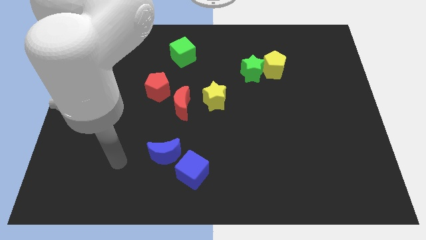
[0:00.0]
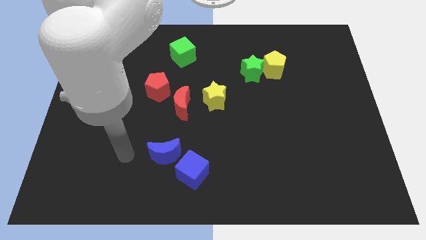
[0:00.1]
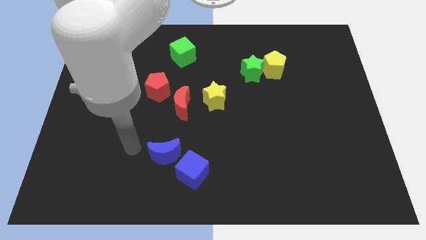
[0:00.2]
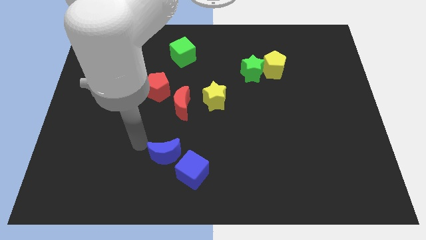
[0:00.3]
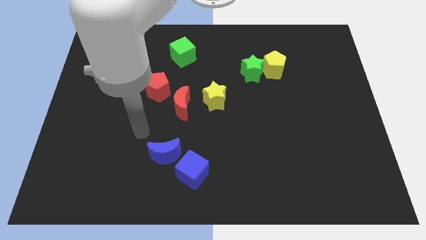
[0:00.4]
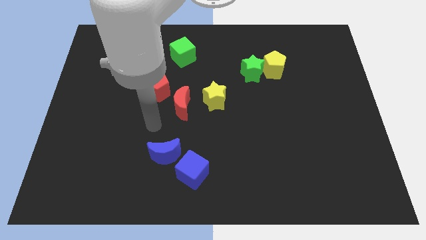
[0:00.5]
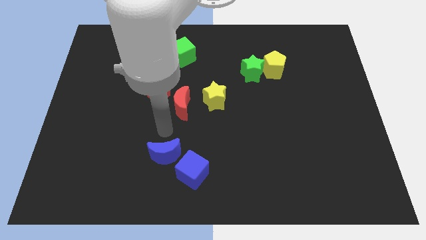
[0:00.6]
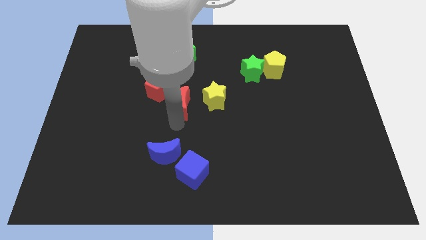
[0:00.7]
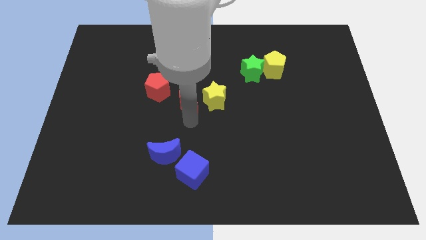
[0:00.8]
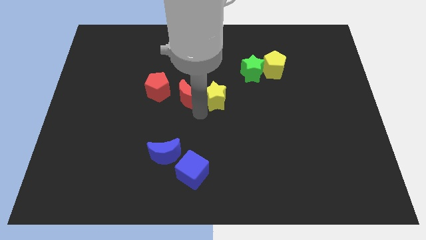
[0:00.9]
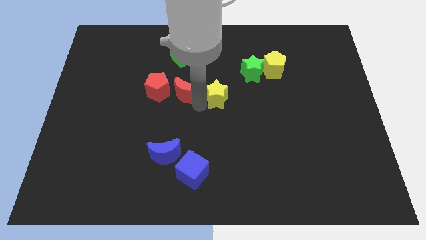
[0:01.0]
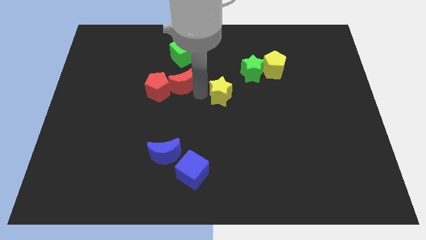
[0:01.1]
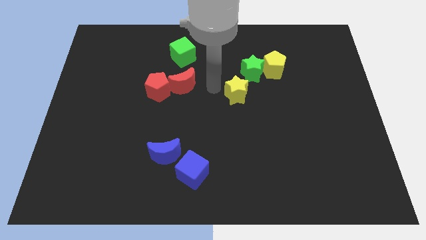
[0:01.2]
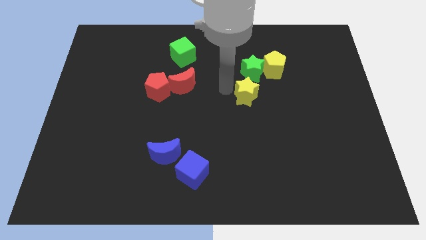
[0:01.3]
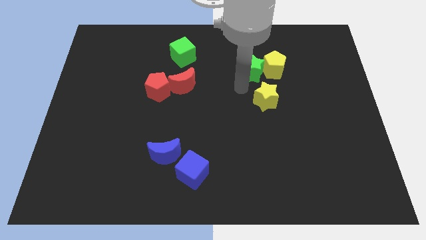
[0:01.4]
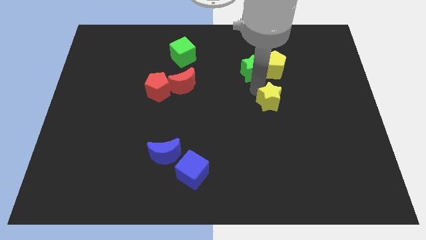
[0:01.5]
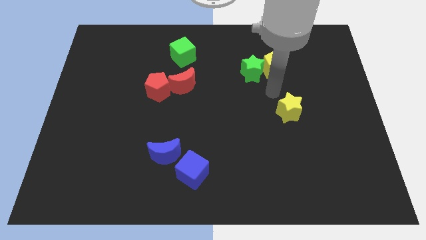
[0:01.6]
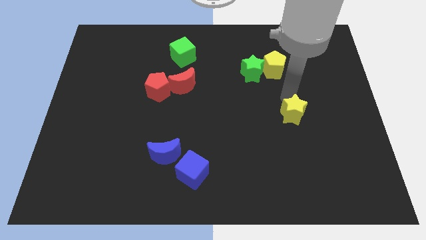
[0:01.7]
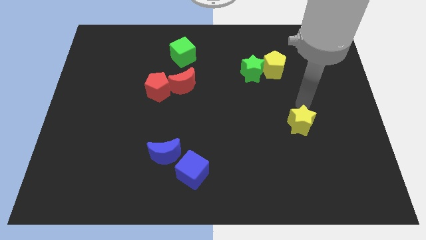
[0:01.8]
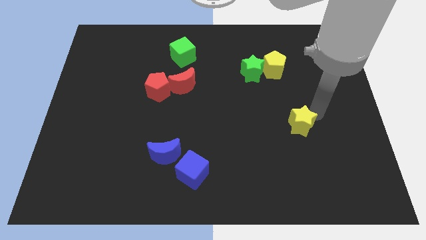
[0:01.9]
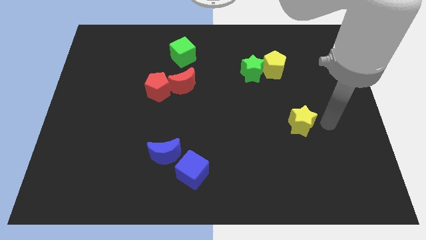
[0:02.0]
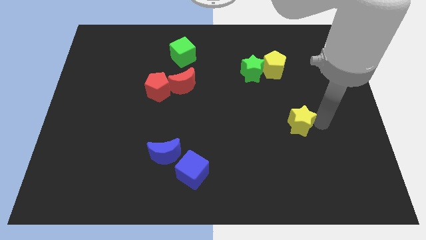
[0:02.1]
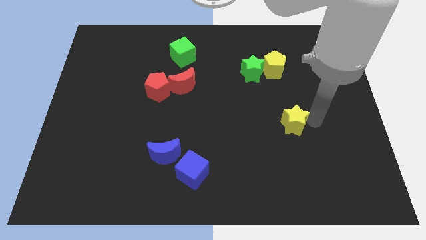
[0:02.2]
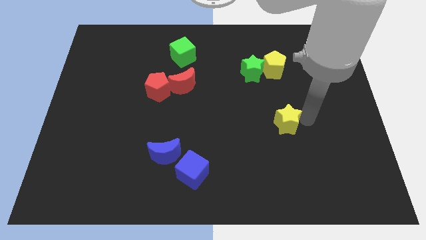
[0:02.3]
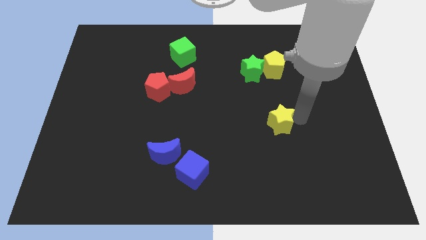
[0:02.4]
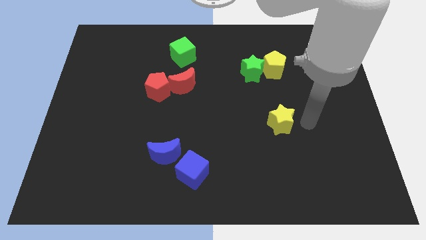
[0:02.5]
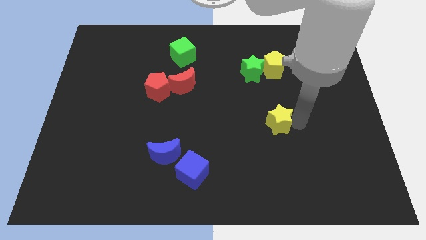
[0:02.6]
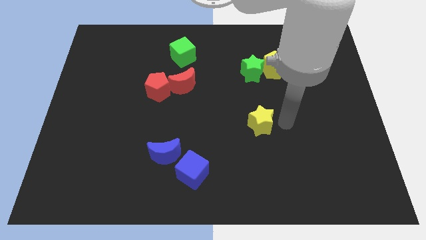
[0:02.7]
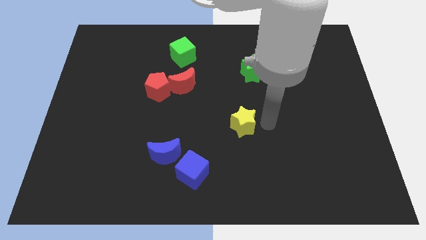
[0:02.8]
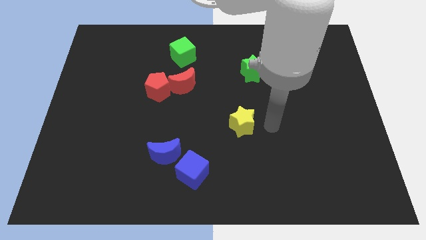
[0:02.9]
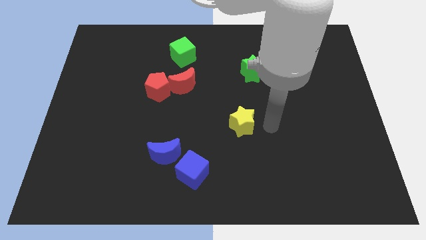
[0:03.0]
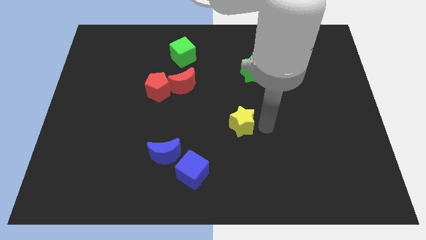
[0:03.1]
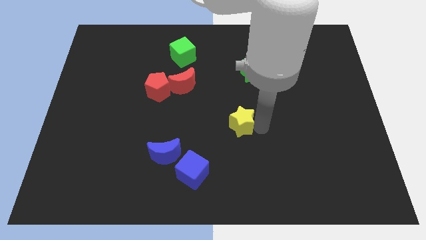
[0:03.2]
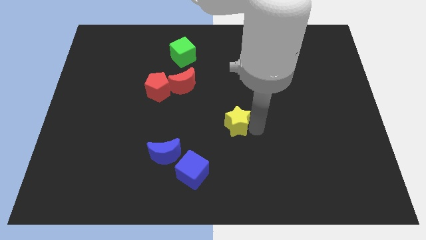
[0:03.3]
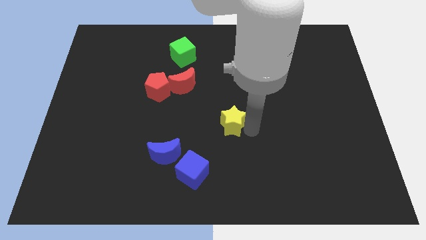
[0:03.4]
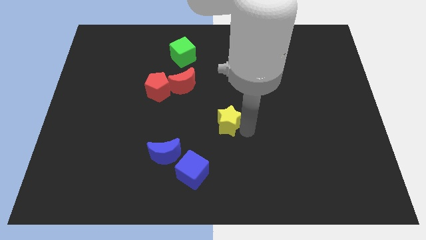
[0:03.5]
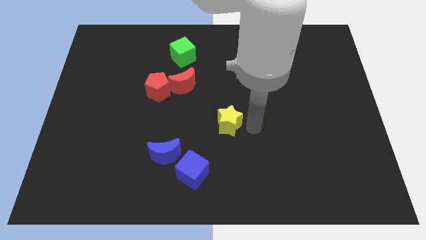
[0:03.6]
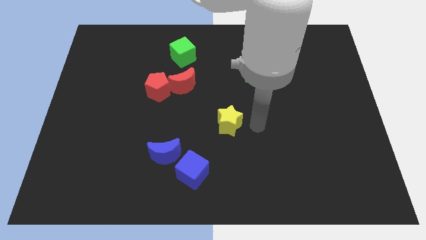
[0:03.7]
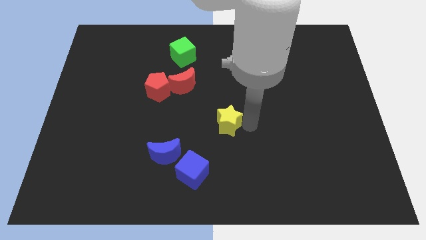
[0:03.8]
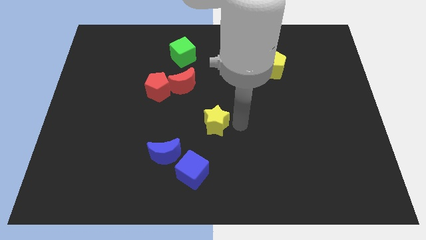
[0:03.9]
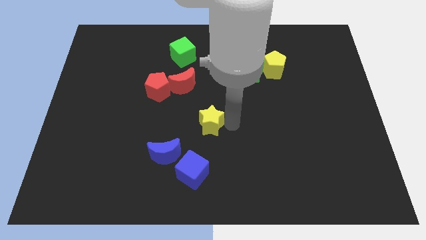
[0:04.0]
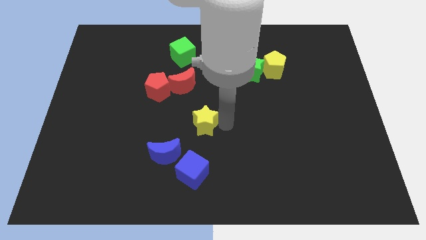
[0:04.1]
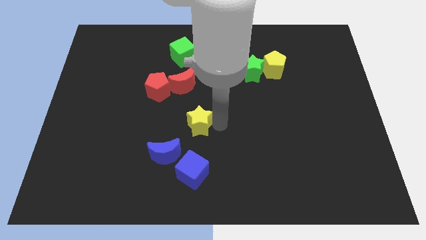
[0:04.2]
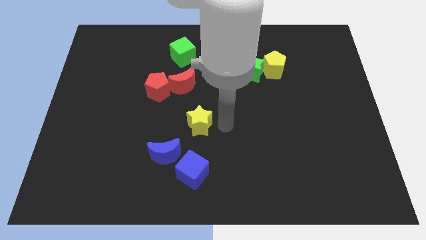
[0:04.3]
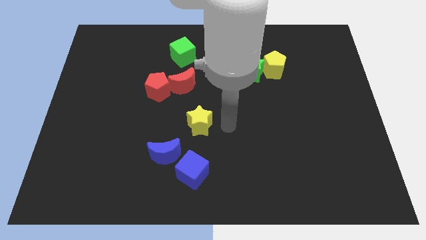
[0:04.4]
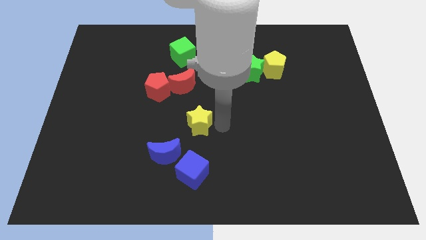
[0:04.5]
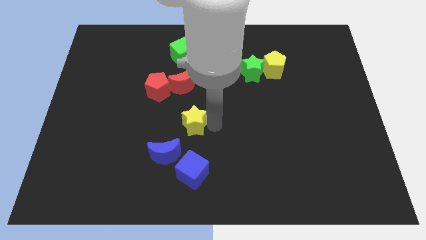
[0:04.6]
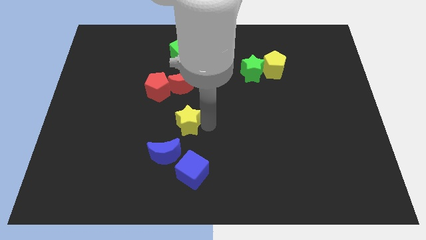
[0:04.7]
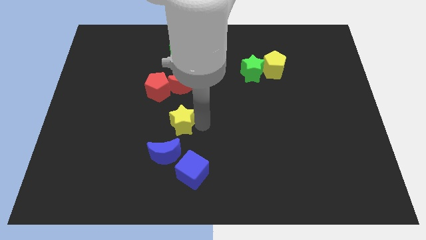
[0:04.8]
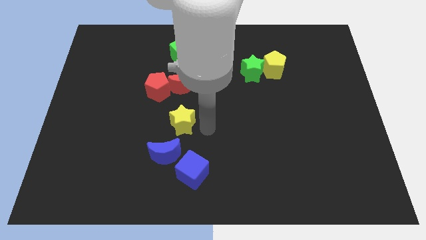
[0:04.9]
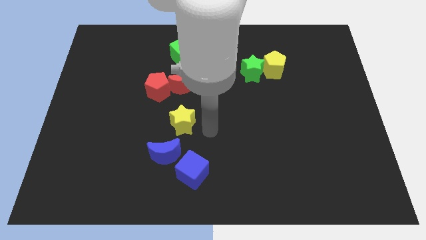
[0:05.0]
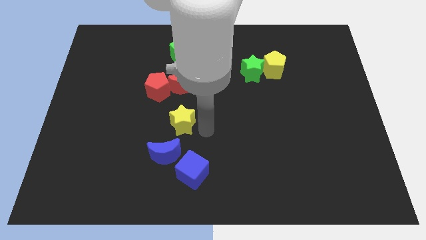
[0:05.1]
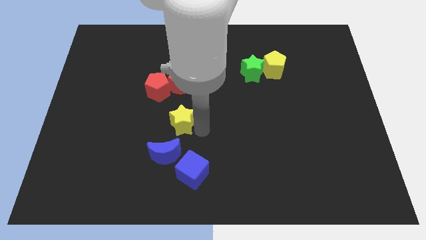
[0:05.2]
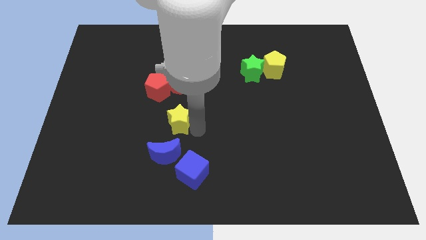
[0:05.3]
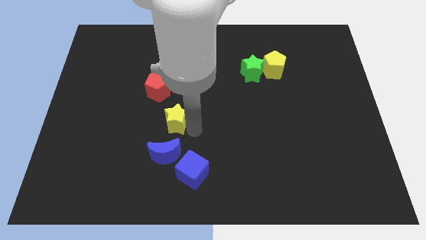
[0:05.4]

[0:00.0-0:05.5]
push the yellow star to the left a bit

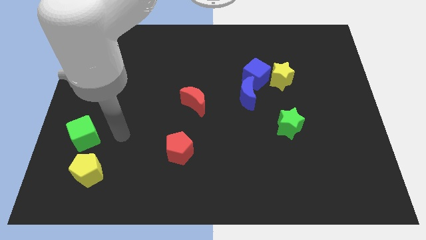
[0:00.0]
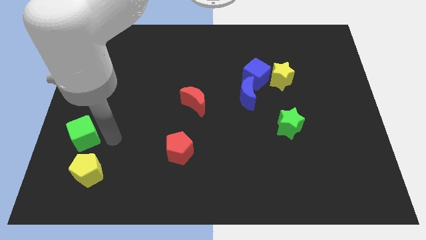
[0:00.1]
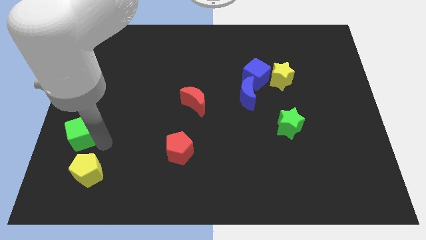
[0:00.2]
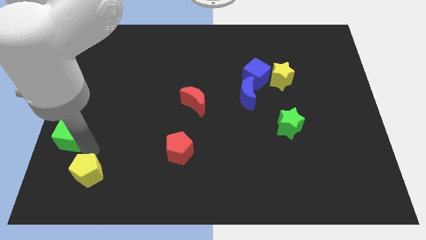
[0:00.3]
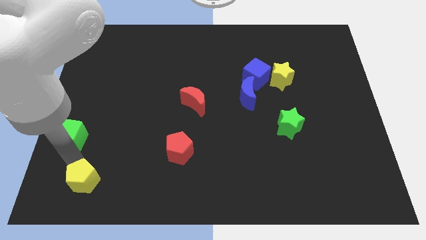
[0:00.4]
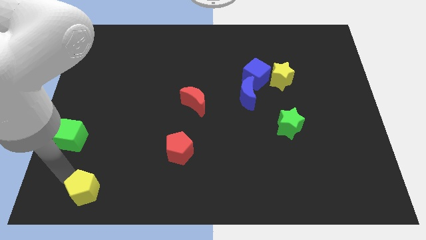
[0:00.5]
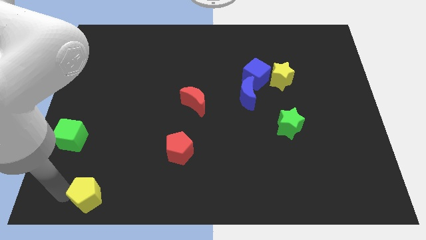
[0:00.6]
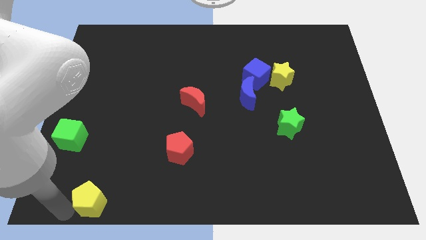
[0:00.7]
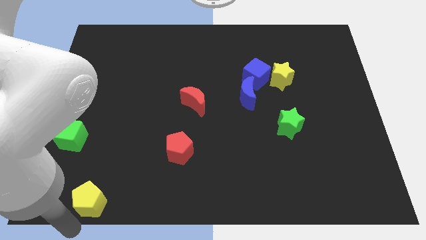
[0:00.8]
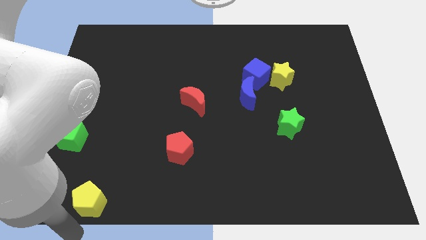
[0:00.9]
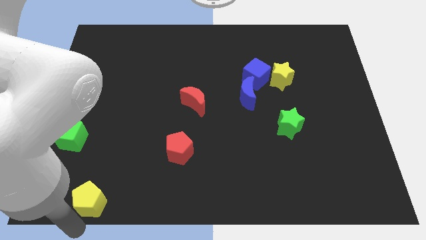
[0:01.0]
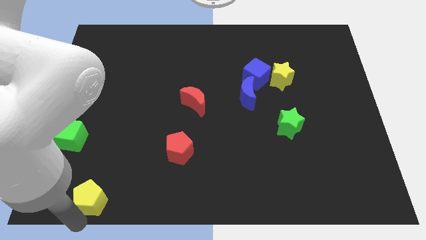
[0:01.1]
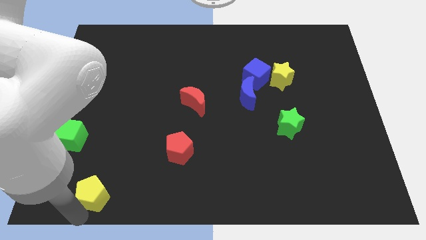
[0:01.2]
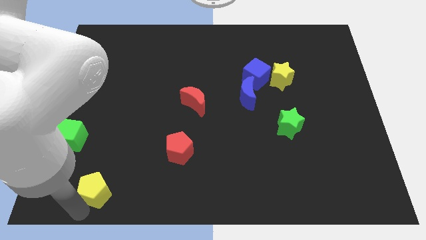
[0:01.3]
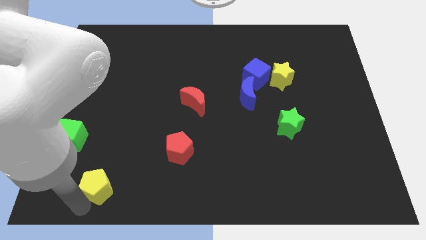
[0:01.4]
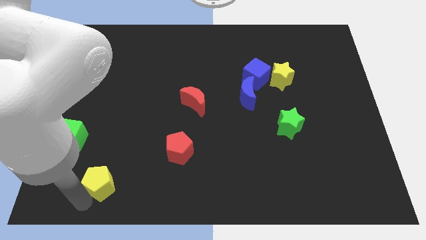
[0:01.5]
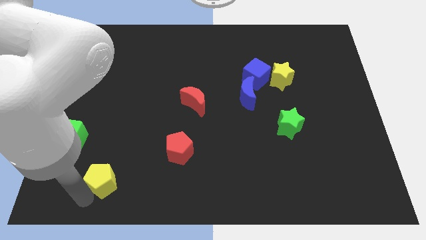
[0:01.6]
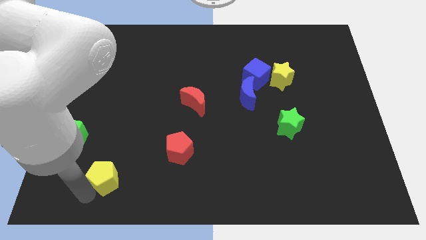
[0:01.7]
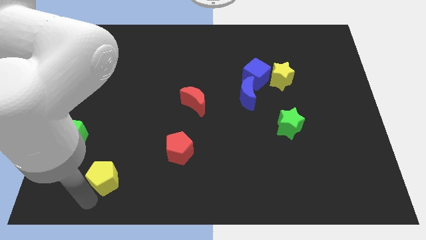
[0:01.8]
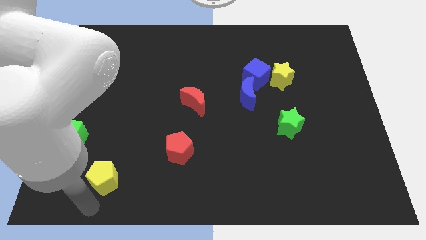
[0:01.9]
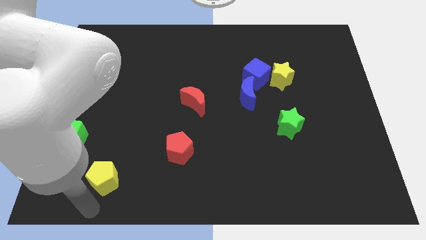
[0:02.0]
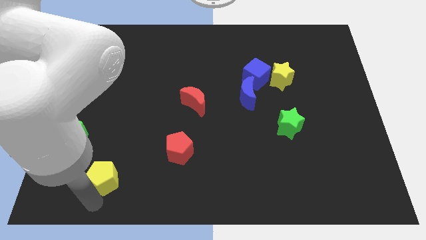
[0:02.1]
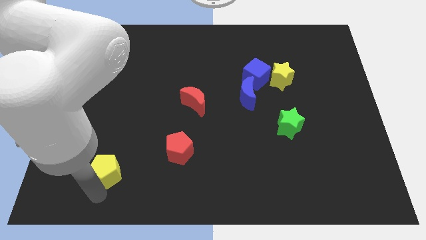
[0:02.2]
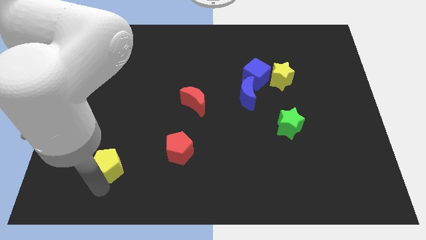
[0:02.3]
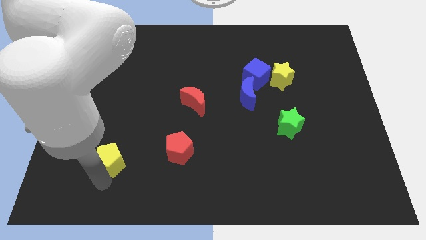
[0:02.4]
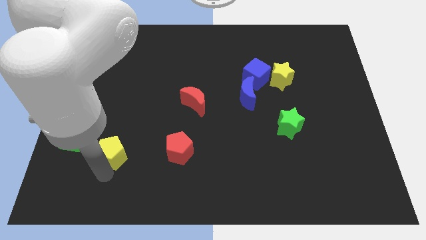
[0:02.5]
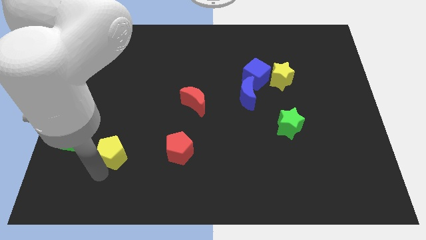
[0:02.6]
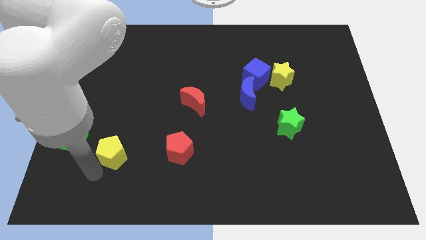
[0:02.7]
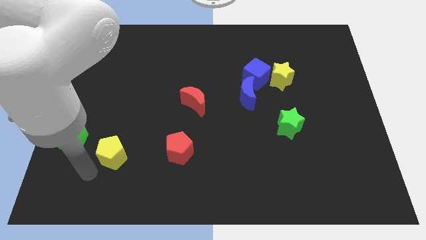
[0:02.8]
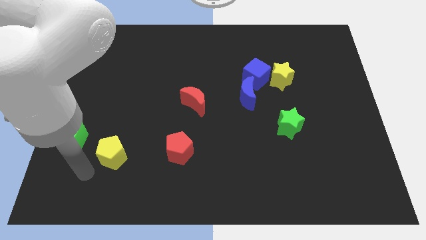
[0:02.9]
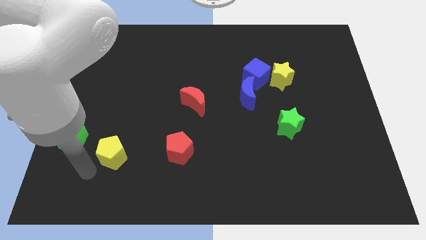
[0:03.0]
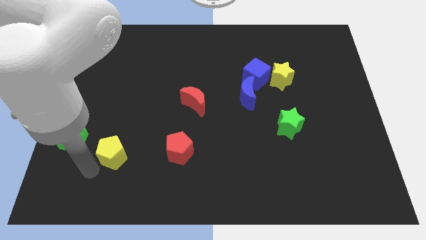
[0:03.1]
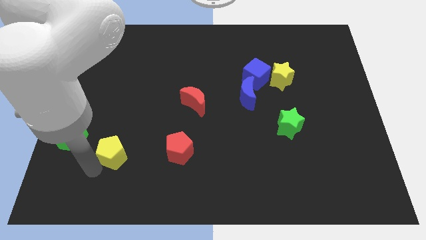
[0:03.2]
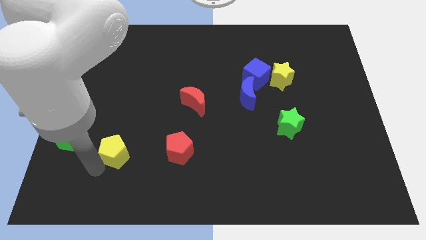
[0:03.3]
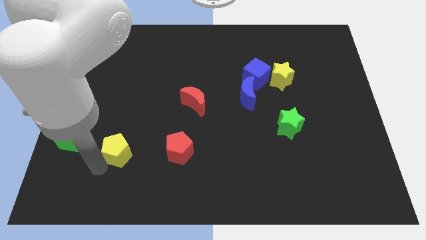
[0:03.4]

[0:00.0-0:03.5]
slightly push the yellow pentagon upwards and then to the right
